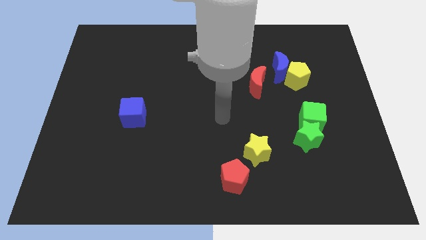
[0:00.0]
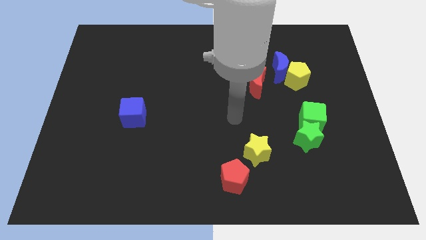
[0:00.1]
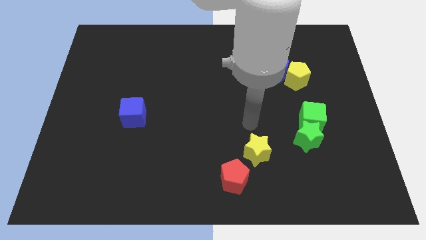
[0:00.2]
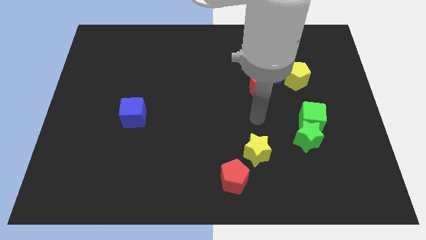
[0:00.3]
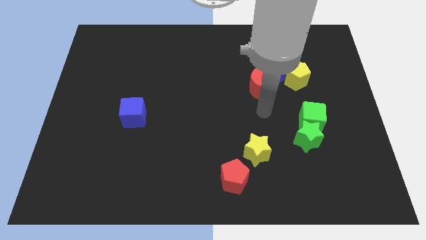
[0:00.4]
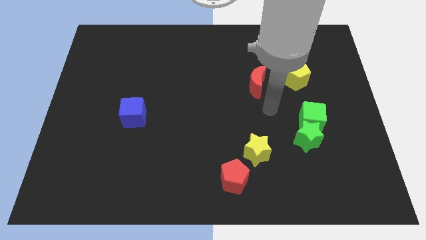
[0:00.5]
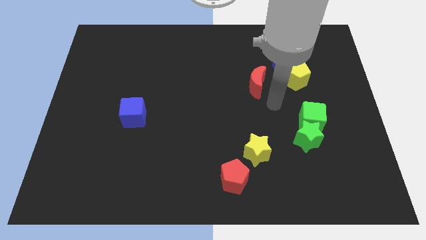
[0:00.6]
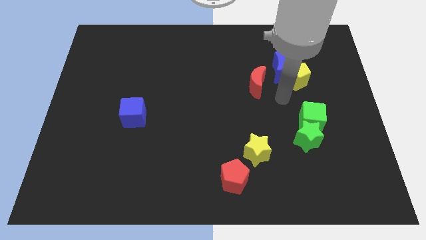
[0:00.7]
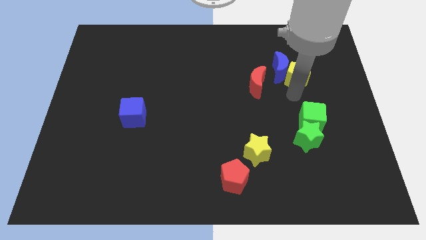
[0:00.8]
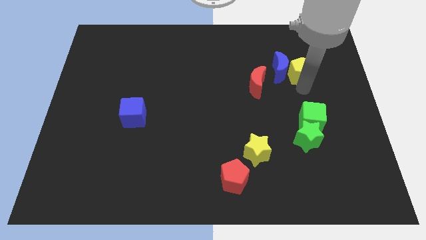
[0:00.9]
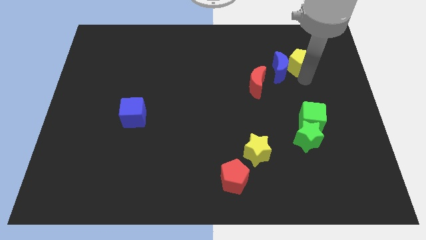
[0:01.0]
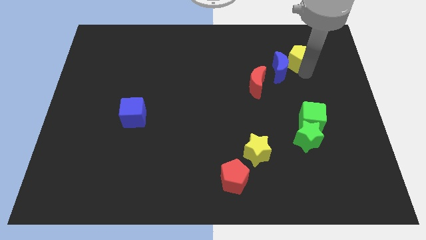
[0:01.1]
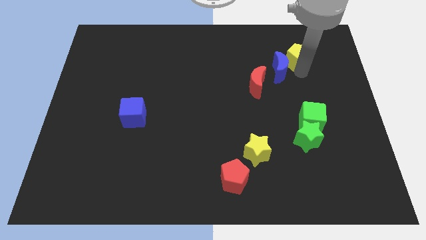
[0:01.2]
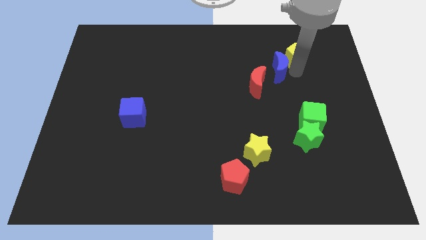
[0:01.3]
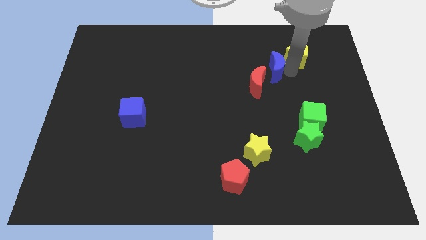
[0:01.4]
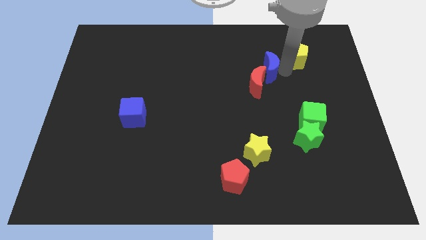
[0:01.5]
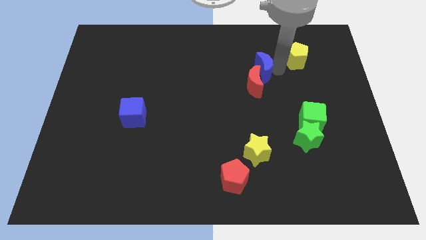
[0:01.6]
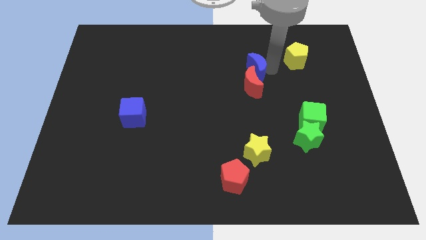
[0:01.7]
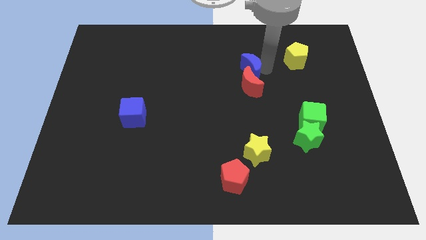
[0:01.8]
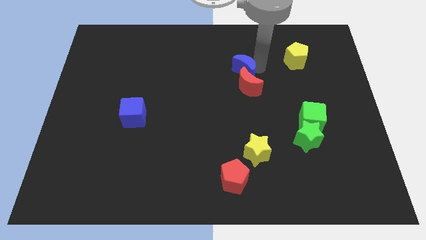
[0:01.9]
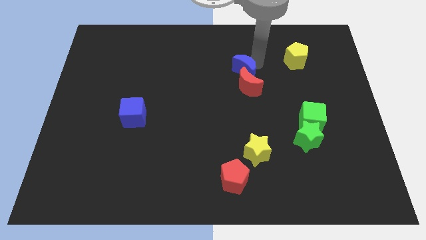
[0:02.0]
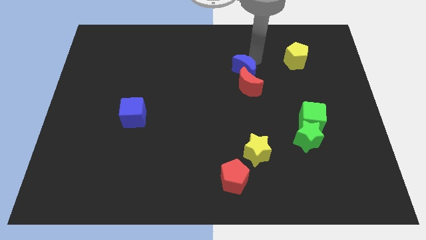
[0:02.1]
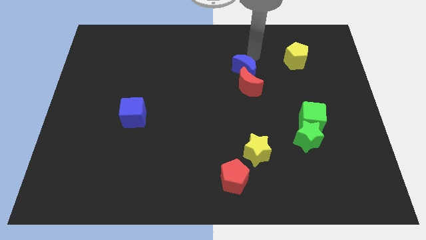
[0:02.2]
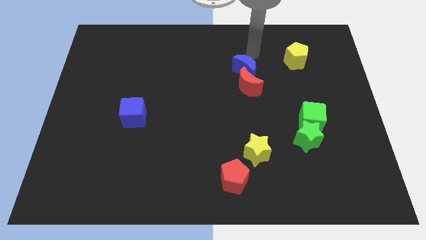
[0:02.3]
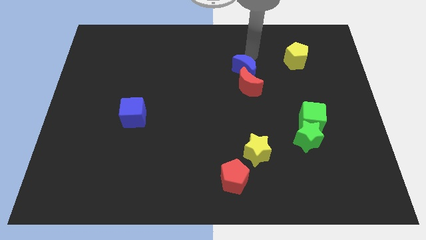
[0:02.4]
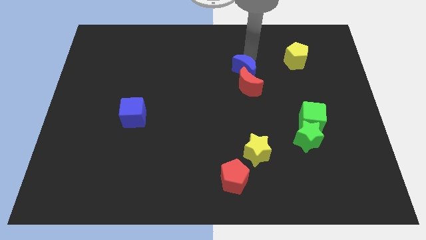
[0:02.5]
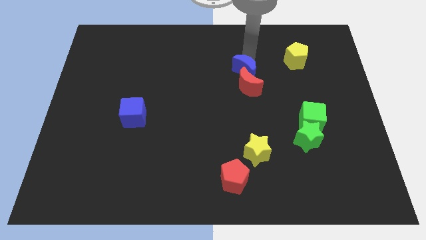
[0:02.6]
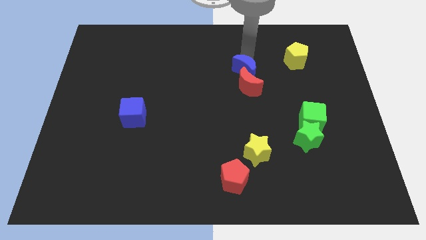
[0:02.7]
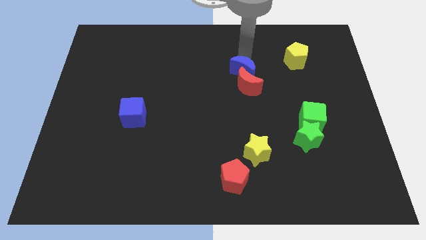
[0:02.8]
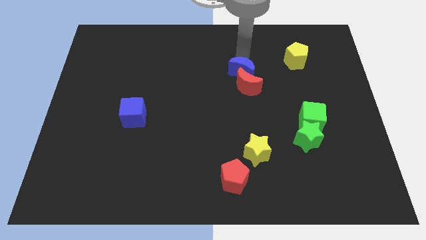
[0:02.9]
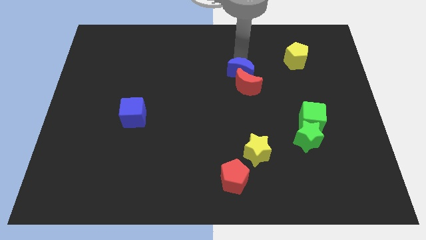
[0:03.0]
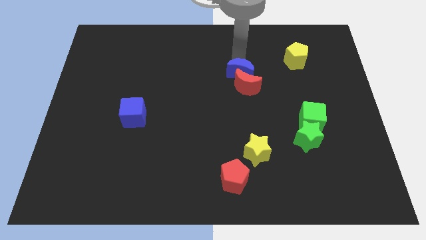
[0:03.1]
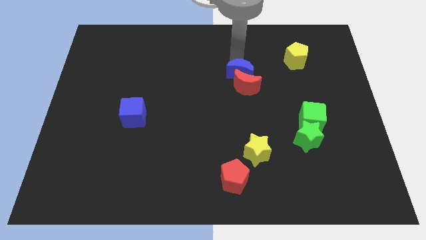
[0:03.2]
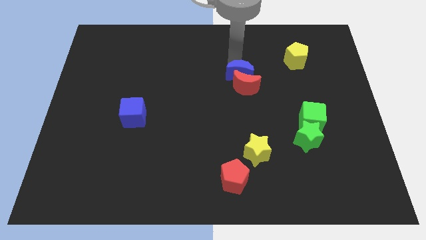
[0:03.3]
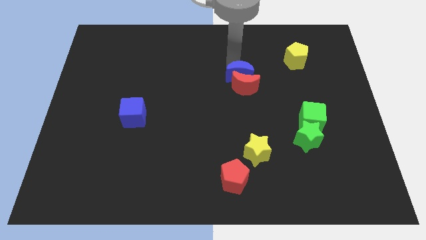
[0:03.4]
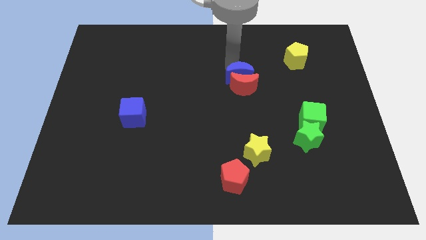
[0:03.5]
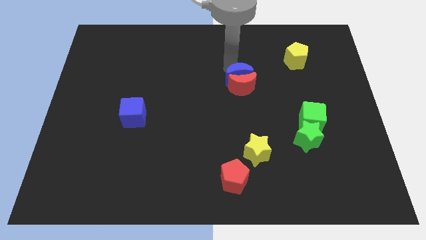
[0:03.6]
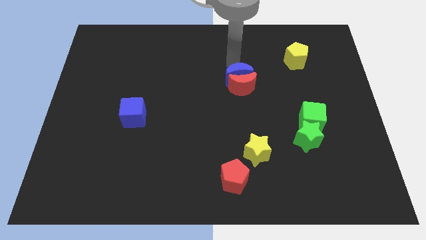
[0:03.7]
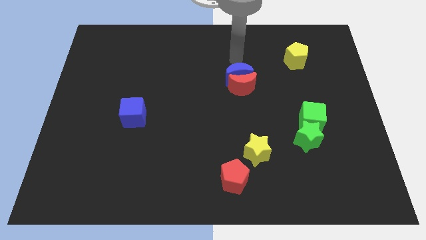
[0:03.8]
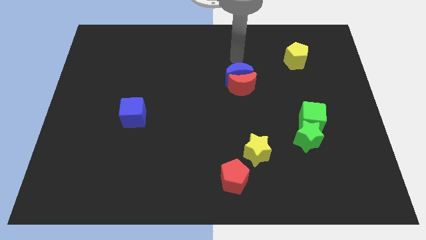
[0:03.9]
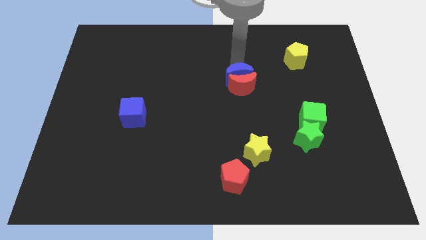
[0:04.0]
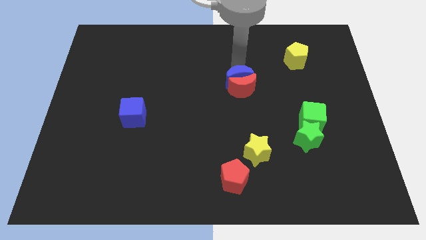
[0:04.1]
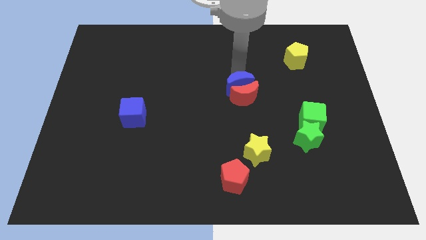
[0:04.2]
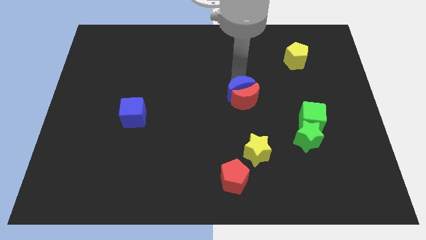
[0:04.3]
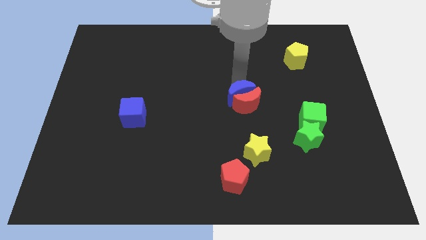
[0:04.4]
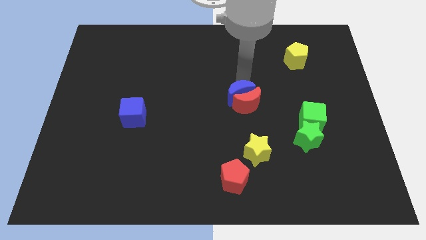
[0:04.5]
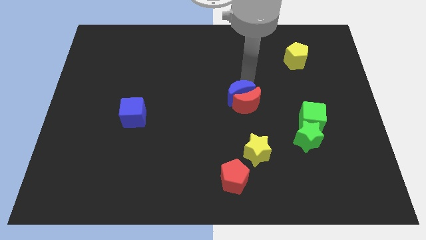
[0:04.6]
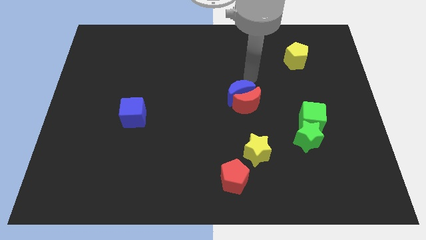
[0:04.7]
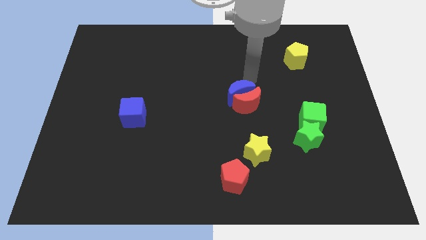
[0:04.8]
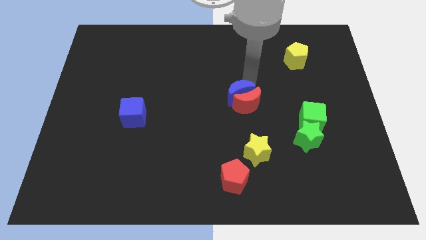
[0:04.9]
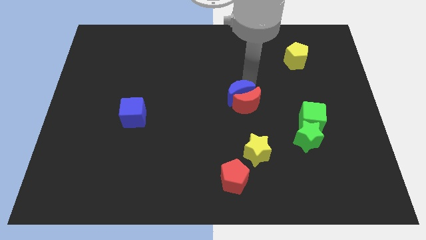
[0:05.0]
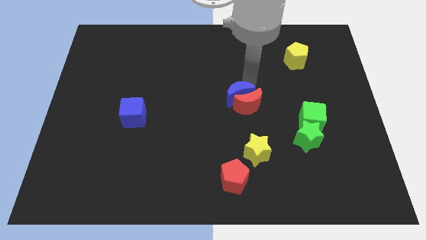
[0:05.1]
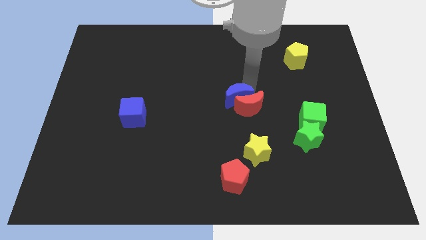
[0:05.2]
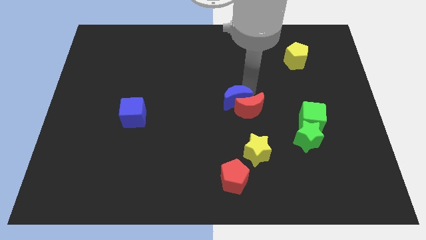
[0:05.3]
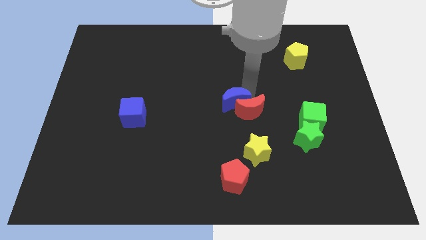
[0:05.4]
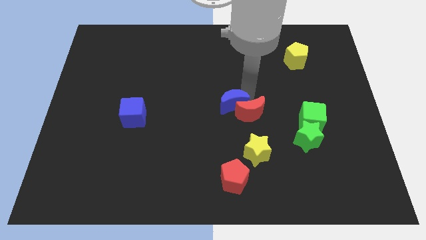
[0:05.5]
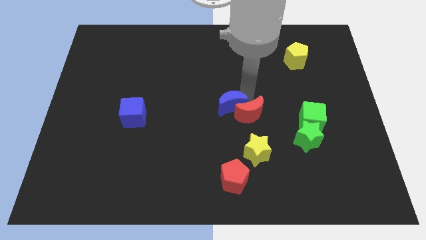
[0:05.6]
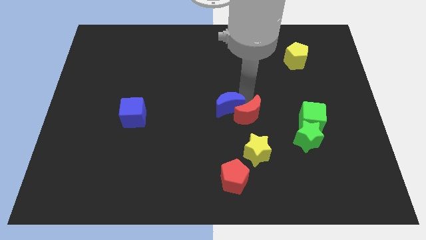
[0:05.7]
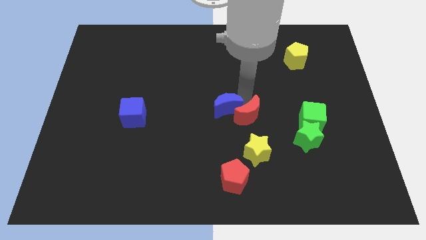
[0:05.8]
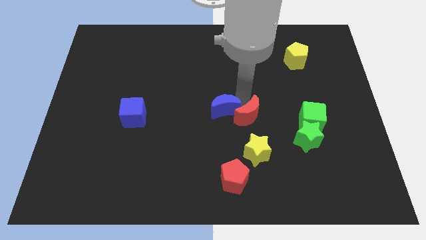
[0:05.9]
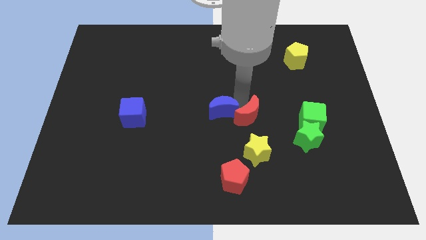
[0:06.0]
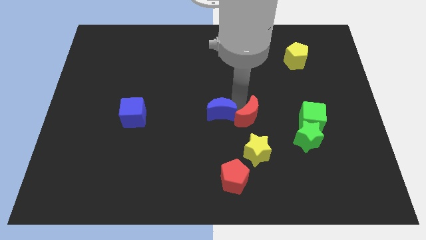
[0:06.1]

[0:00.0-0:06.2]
slide the blue moon diagonally down and left

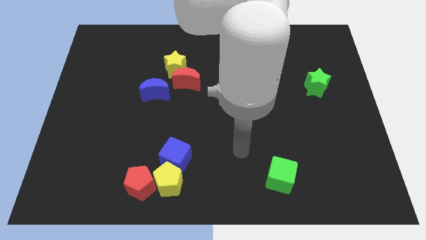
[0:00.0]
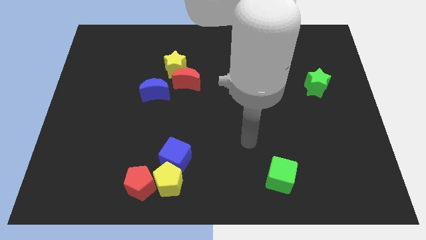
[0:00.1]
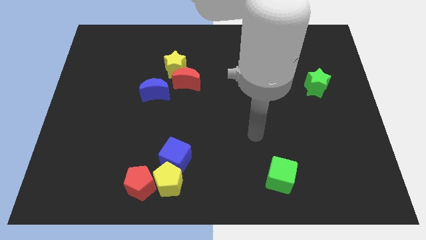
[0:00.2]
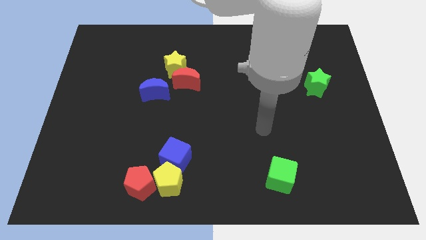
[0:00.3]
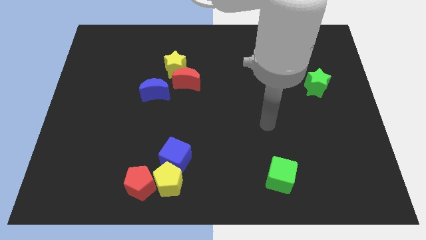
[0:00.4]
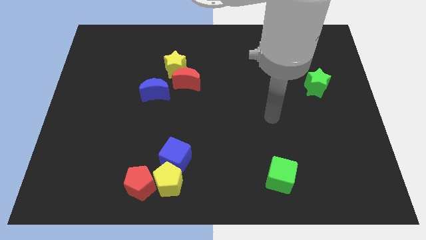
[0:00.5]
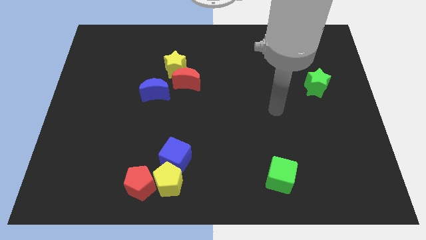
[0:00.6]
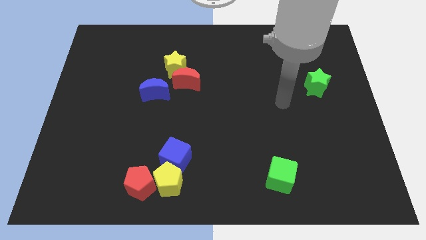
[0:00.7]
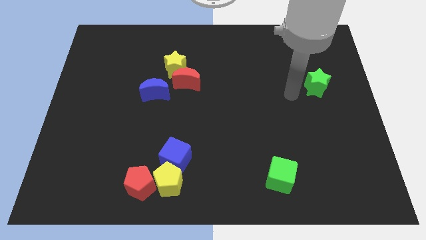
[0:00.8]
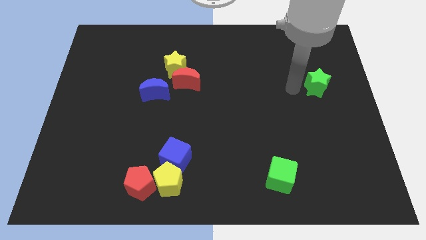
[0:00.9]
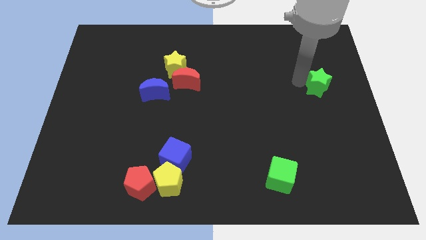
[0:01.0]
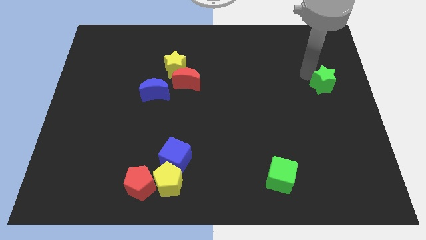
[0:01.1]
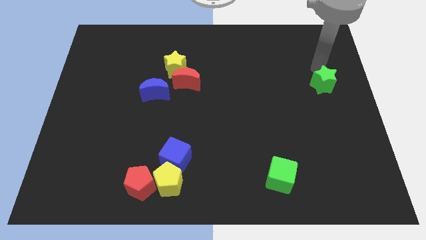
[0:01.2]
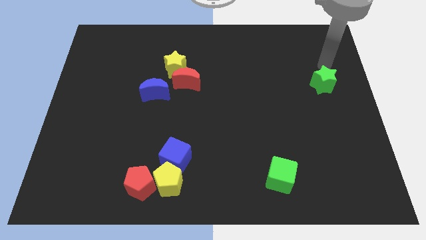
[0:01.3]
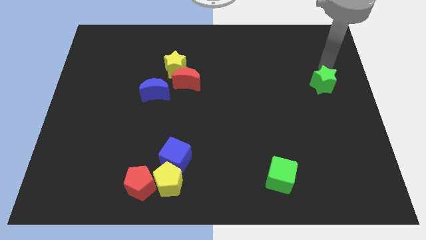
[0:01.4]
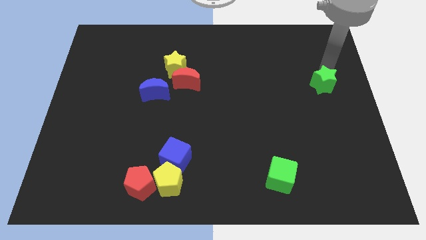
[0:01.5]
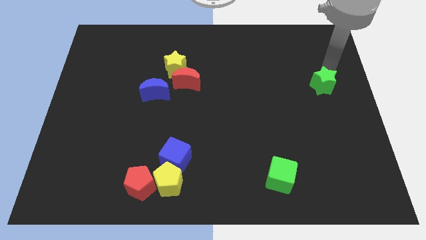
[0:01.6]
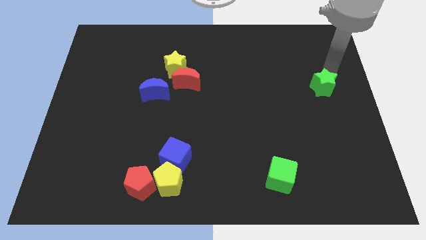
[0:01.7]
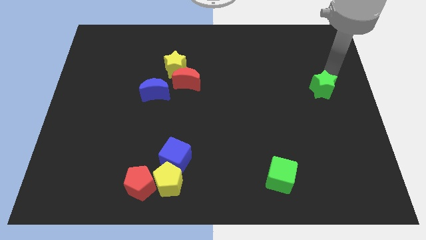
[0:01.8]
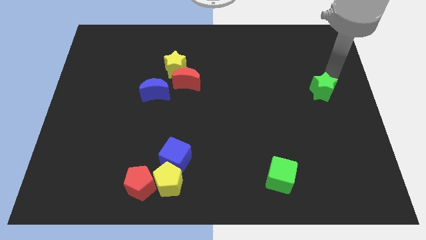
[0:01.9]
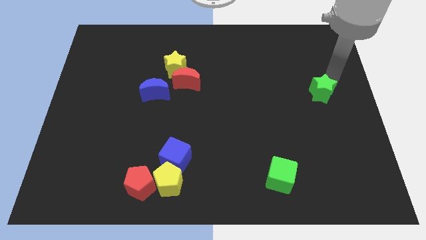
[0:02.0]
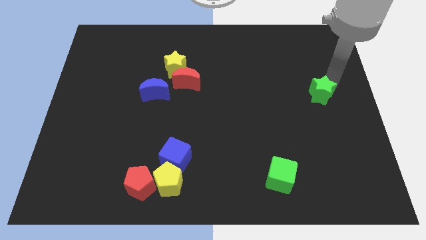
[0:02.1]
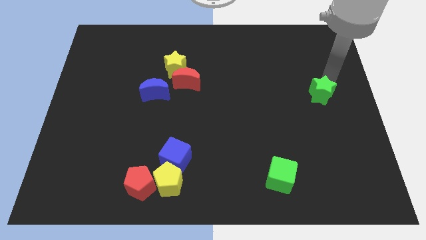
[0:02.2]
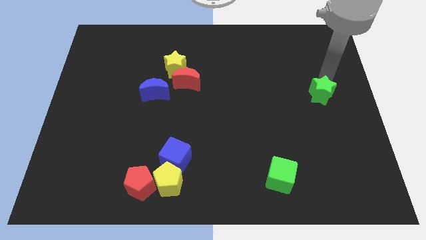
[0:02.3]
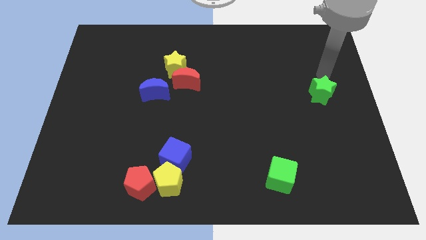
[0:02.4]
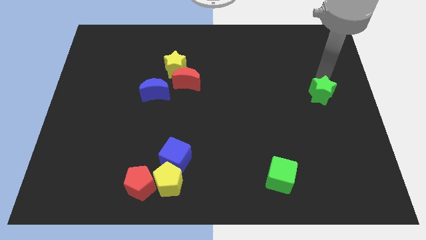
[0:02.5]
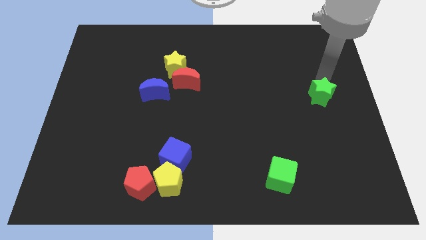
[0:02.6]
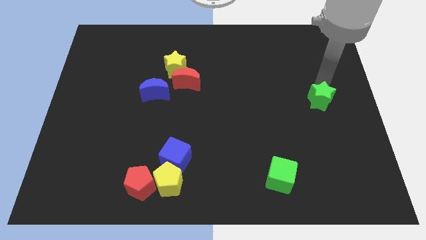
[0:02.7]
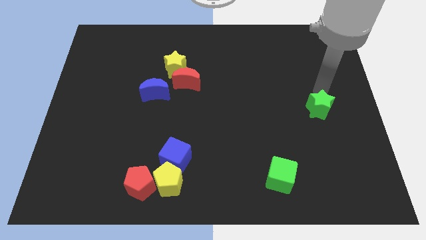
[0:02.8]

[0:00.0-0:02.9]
slide the green star a little bit downwards
